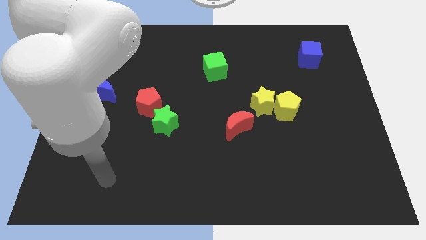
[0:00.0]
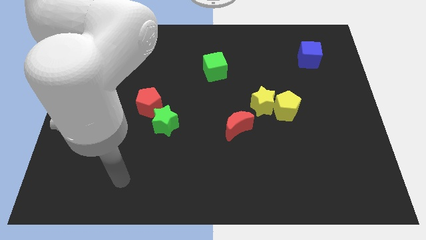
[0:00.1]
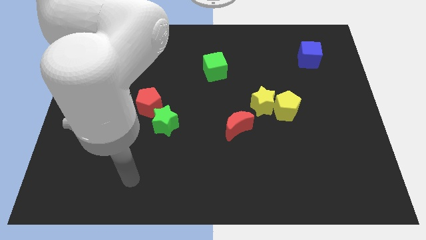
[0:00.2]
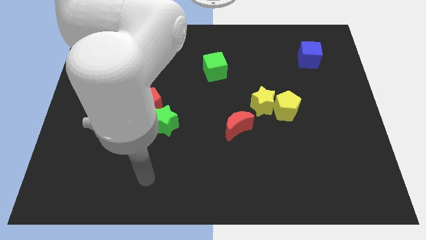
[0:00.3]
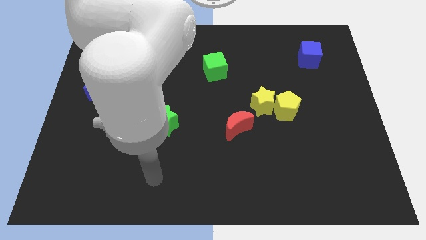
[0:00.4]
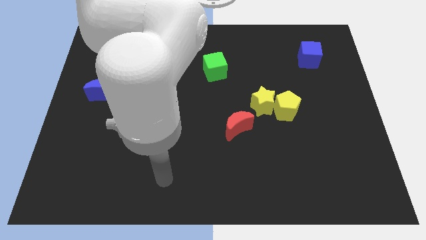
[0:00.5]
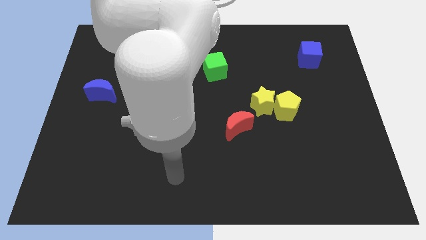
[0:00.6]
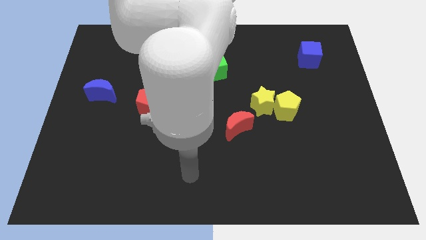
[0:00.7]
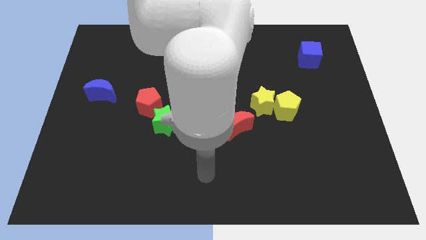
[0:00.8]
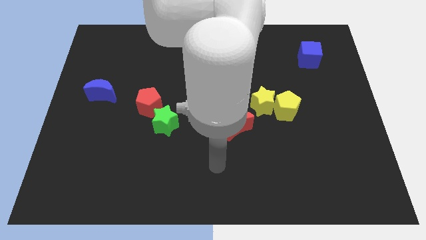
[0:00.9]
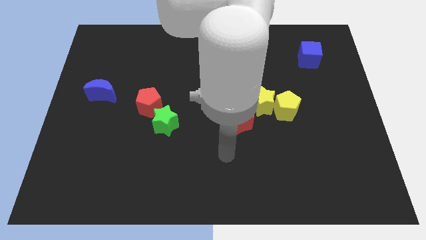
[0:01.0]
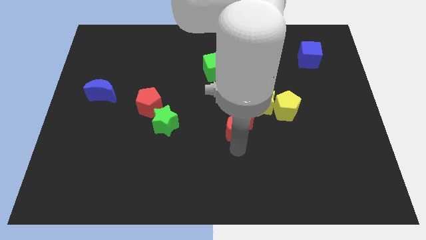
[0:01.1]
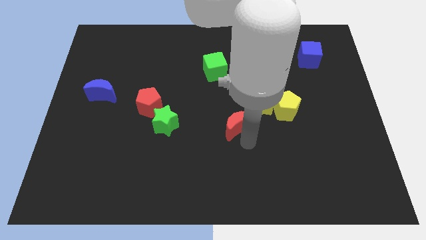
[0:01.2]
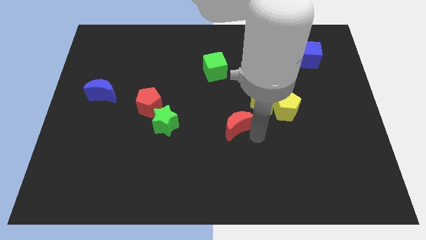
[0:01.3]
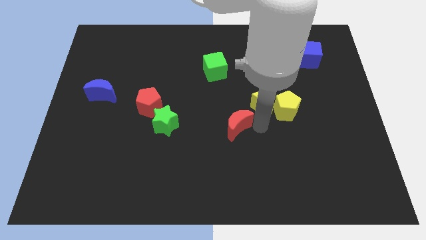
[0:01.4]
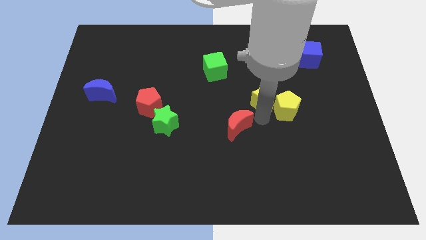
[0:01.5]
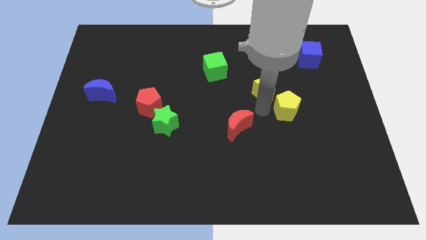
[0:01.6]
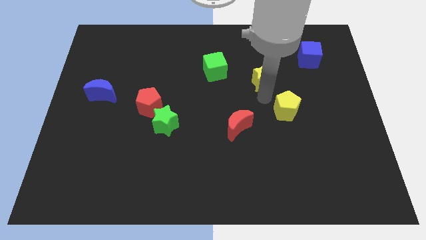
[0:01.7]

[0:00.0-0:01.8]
pull the yellow pentagon apart from the yellow star

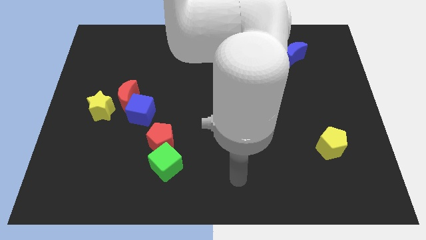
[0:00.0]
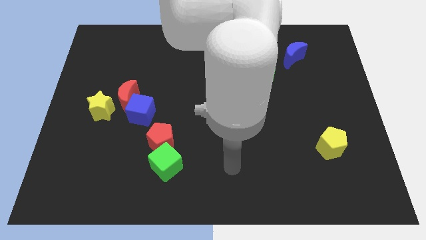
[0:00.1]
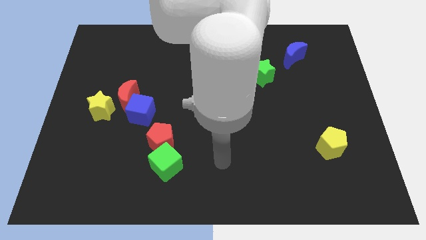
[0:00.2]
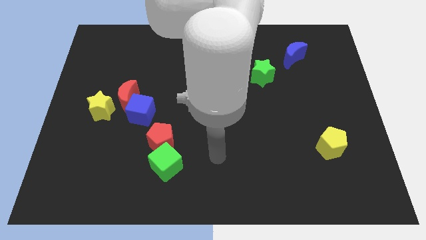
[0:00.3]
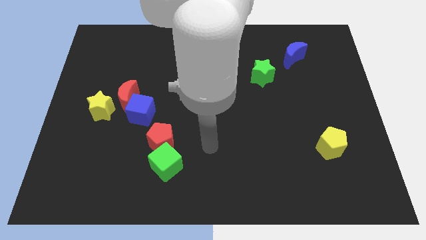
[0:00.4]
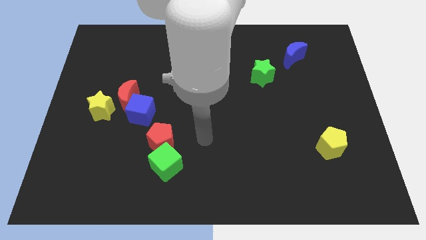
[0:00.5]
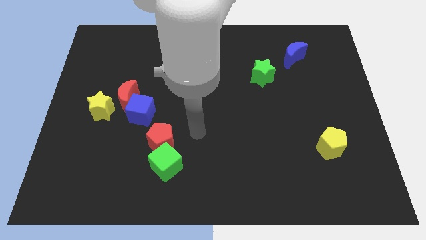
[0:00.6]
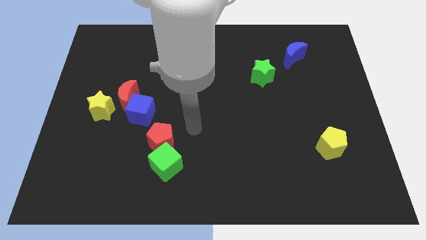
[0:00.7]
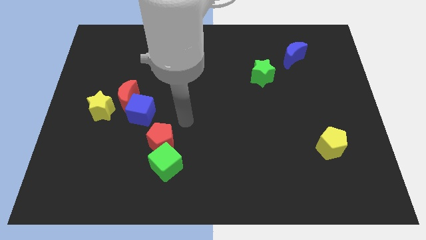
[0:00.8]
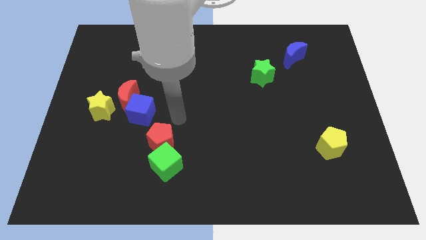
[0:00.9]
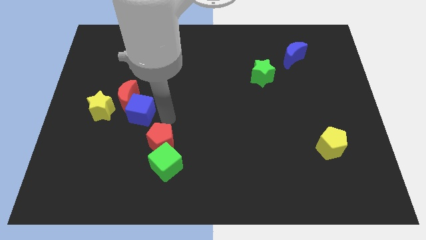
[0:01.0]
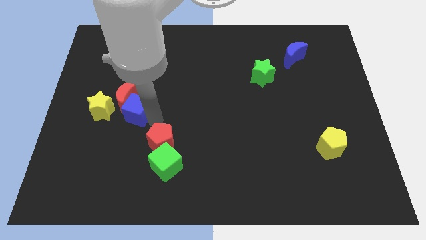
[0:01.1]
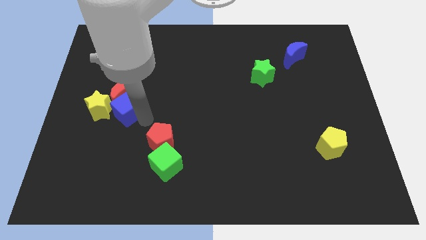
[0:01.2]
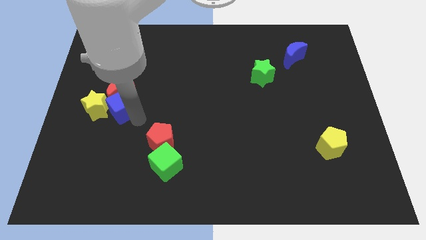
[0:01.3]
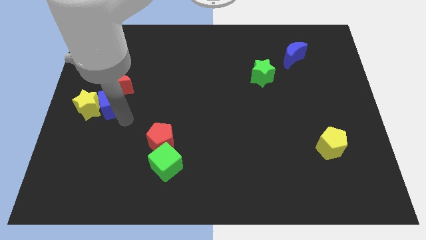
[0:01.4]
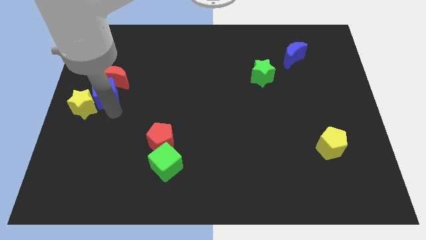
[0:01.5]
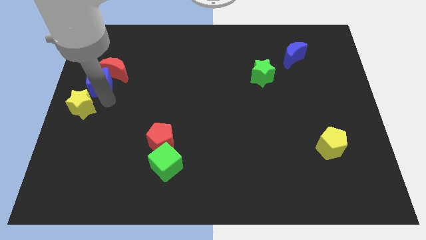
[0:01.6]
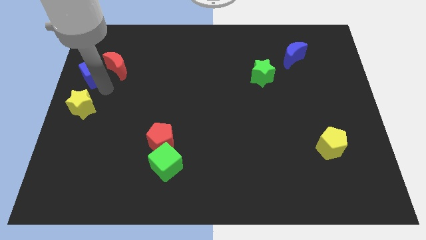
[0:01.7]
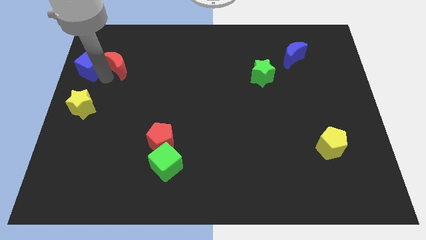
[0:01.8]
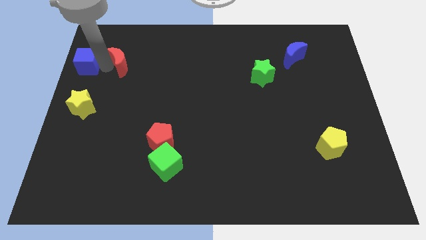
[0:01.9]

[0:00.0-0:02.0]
move the red moon away from the blue cube and yellow star

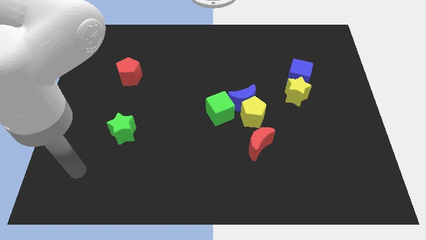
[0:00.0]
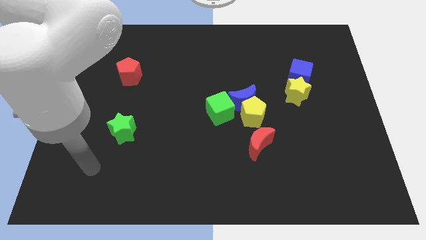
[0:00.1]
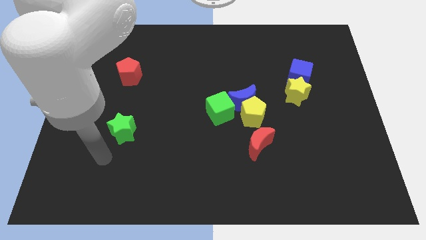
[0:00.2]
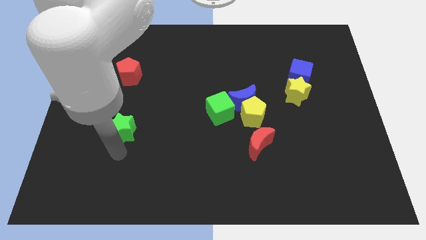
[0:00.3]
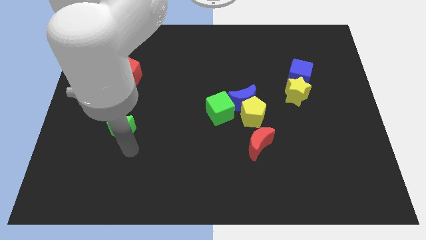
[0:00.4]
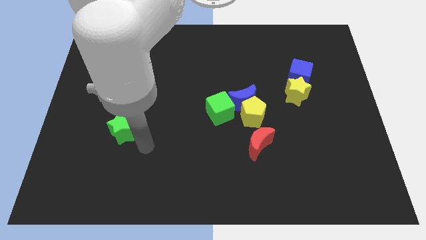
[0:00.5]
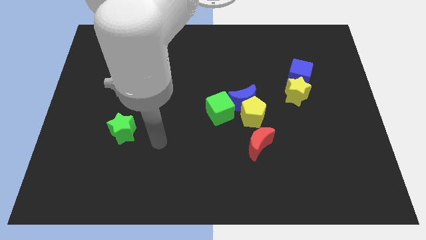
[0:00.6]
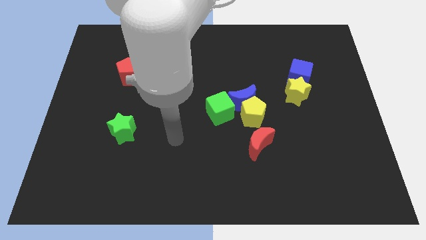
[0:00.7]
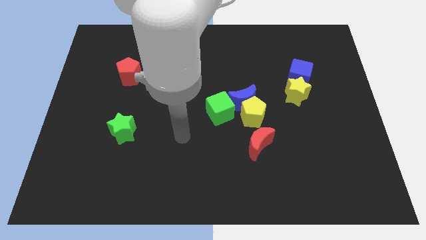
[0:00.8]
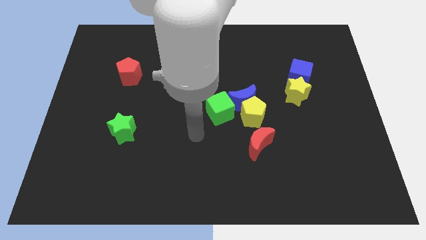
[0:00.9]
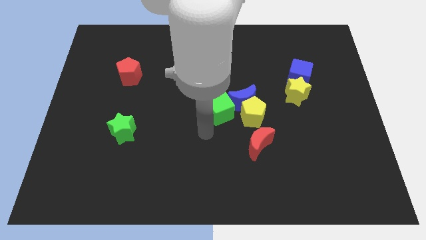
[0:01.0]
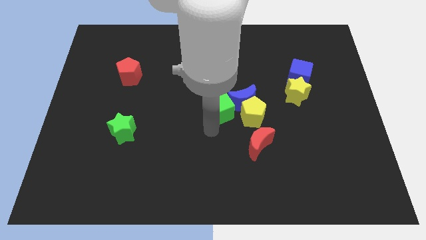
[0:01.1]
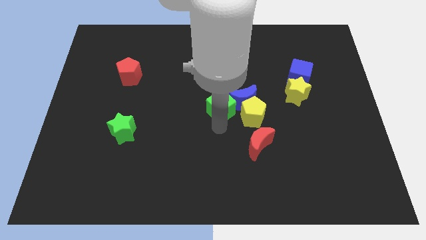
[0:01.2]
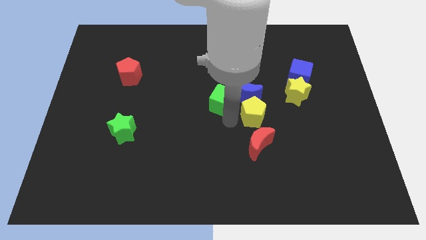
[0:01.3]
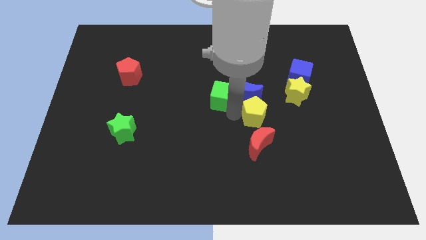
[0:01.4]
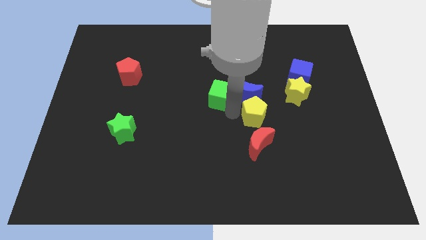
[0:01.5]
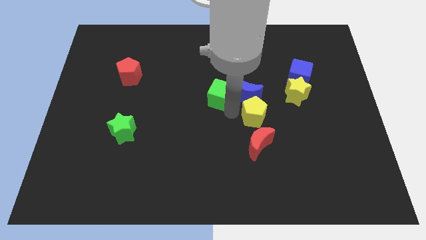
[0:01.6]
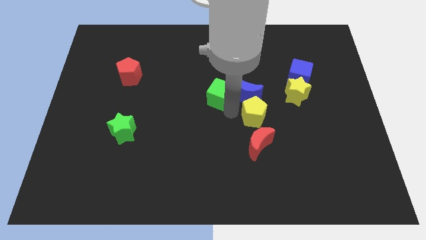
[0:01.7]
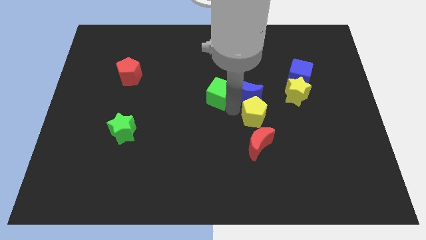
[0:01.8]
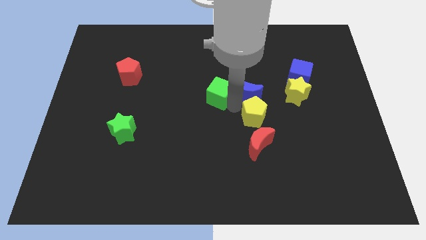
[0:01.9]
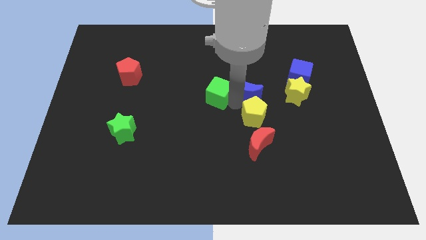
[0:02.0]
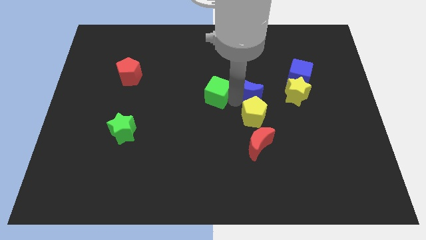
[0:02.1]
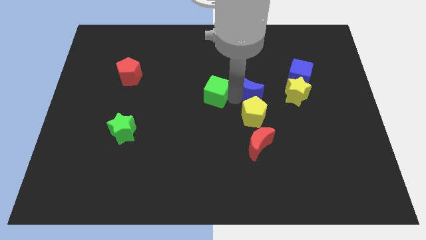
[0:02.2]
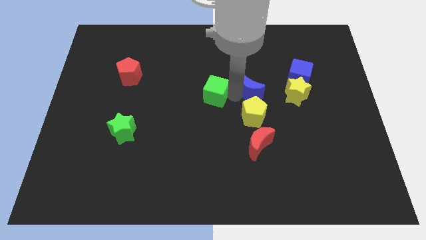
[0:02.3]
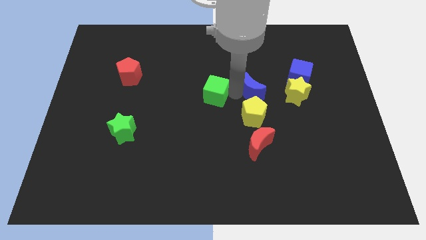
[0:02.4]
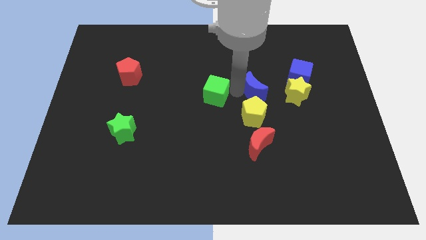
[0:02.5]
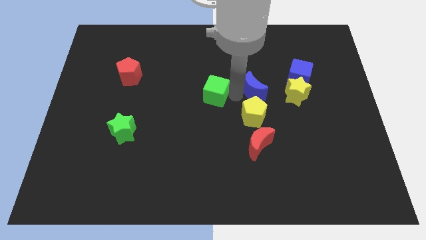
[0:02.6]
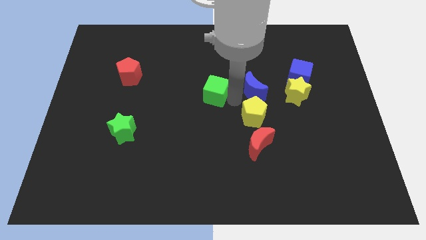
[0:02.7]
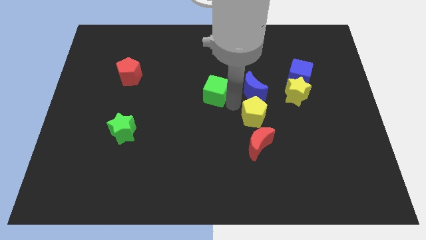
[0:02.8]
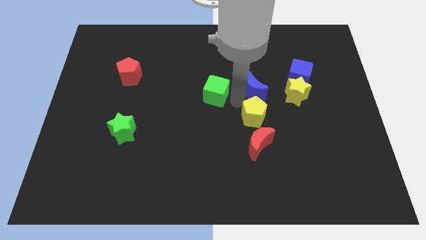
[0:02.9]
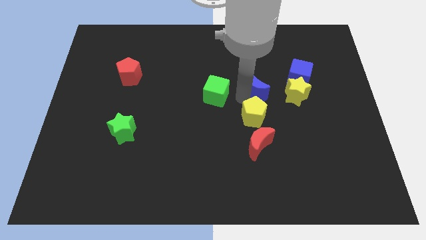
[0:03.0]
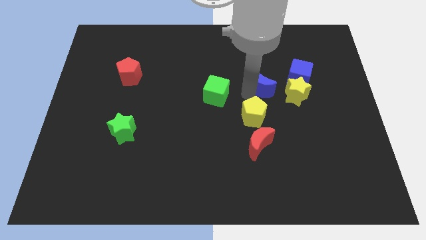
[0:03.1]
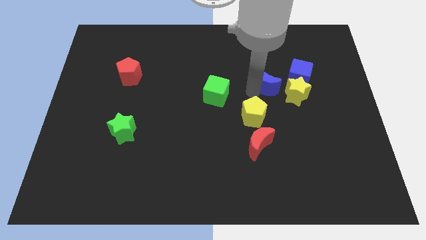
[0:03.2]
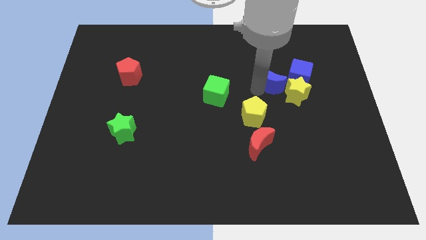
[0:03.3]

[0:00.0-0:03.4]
pull the blue moon apart from the yellow pentagon and green cube

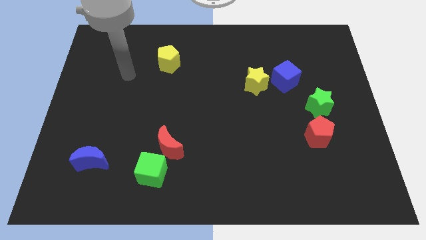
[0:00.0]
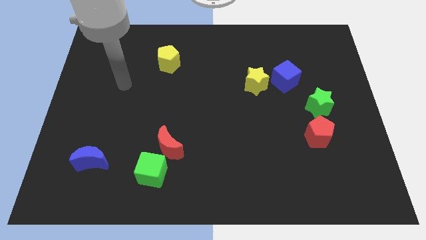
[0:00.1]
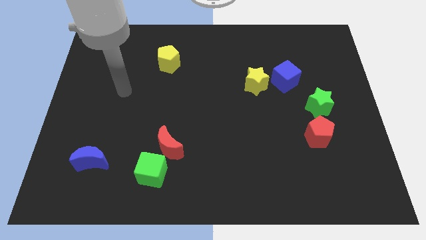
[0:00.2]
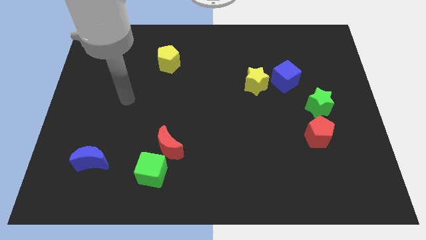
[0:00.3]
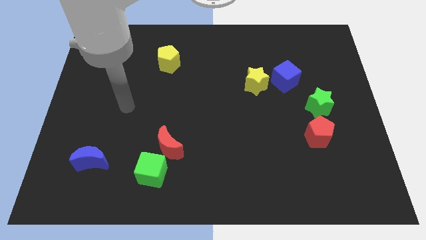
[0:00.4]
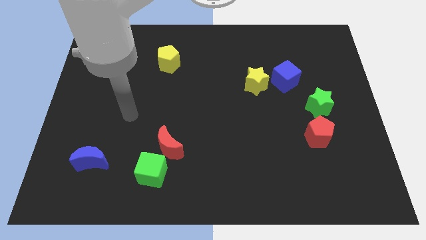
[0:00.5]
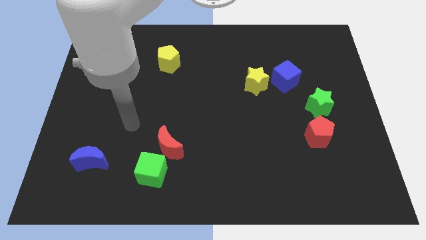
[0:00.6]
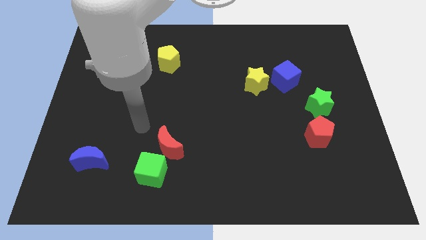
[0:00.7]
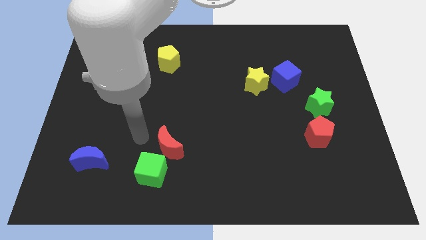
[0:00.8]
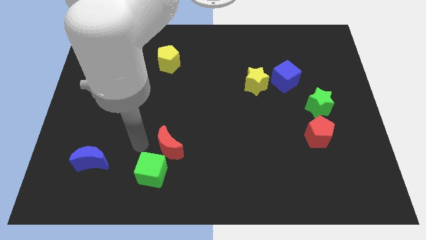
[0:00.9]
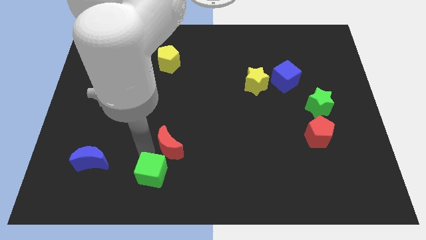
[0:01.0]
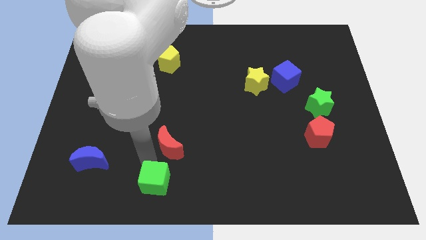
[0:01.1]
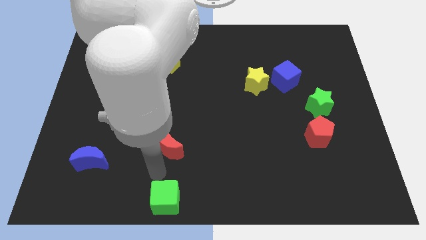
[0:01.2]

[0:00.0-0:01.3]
separate the red moon from the green cube

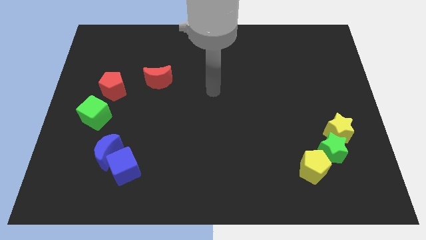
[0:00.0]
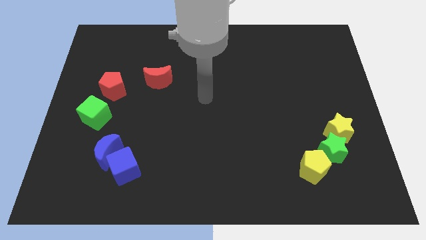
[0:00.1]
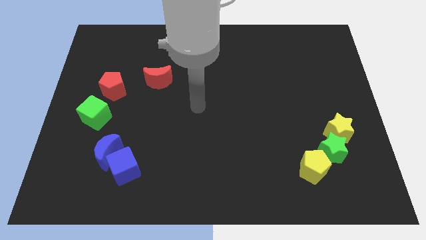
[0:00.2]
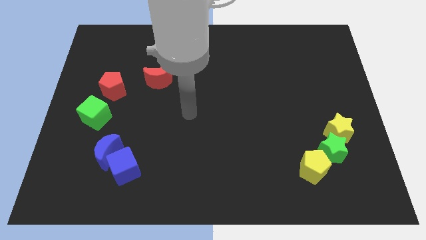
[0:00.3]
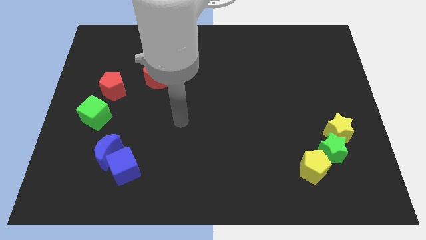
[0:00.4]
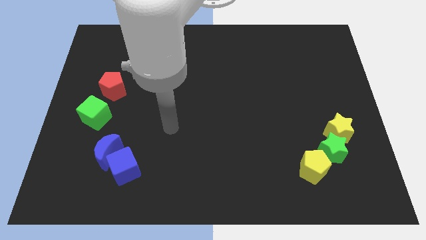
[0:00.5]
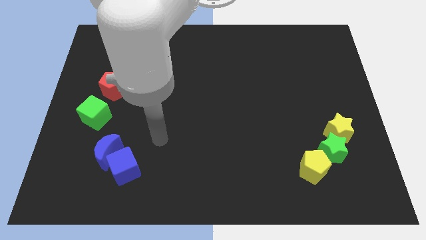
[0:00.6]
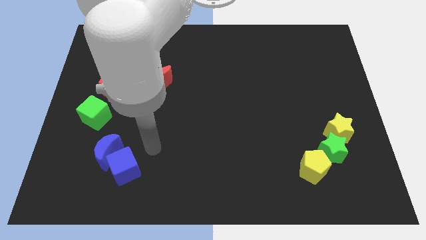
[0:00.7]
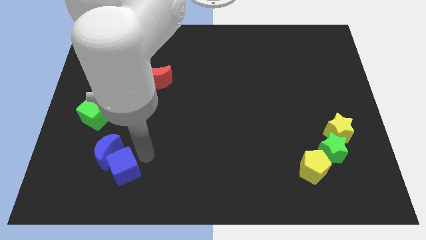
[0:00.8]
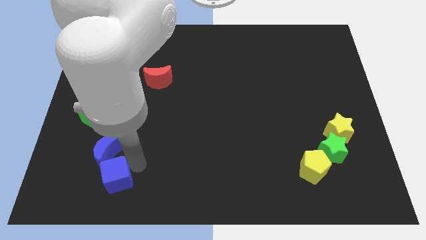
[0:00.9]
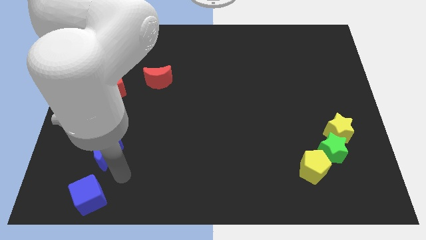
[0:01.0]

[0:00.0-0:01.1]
separate the blue moon from the blue cube
